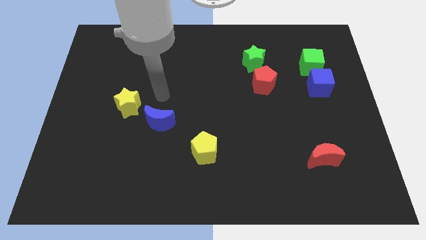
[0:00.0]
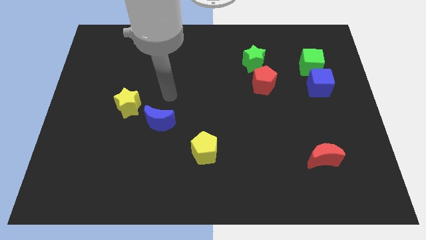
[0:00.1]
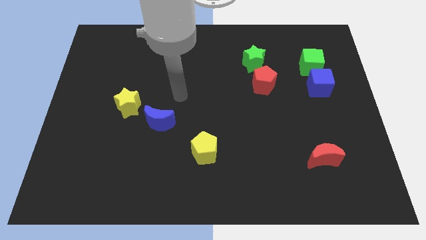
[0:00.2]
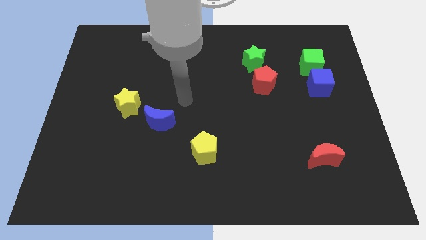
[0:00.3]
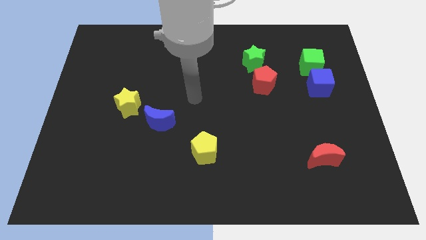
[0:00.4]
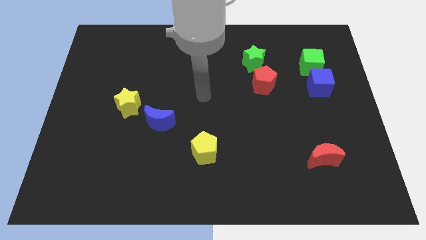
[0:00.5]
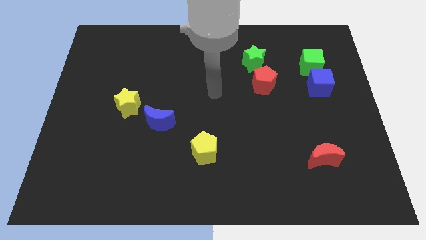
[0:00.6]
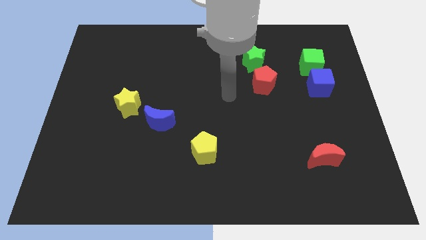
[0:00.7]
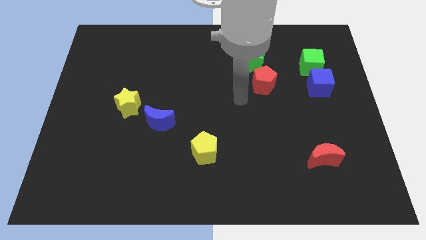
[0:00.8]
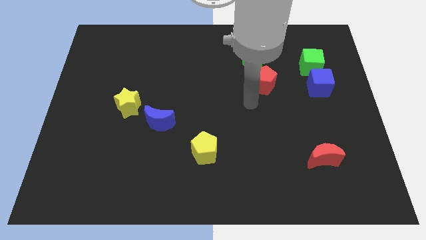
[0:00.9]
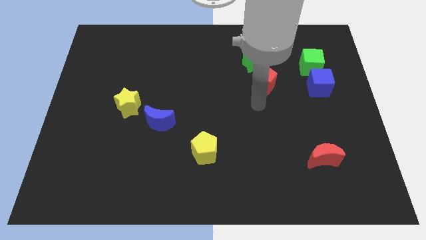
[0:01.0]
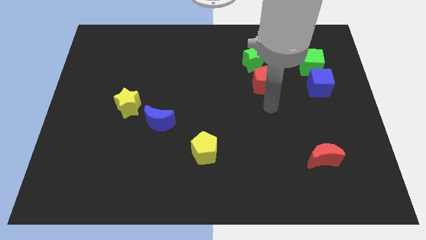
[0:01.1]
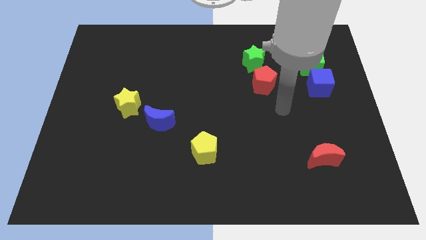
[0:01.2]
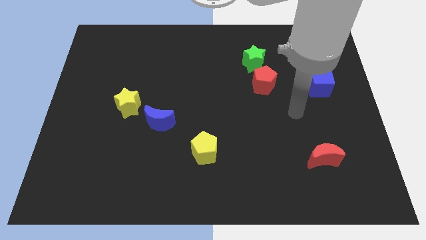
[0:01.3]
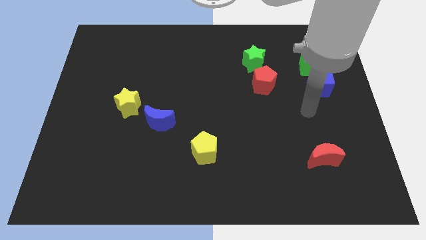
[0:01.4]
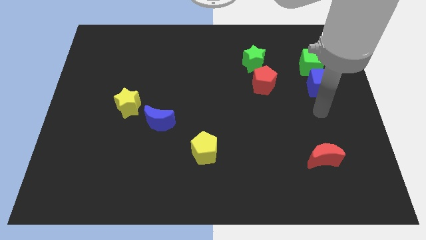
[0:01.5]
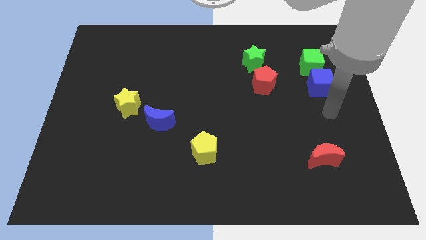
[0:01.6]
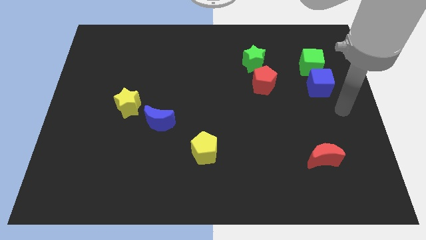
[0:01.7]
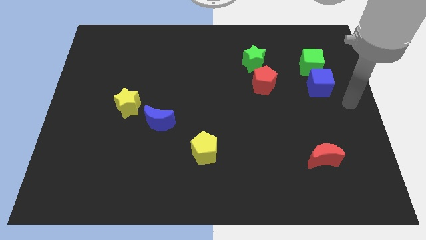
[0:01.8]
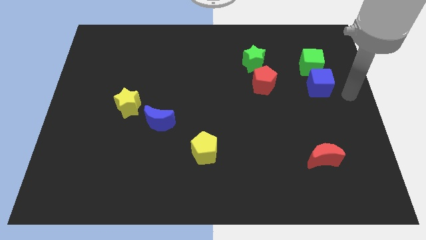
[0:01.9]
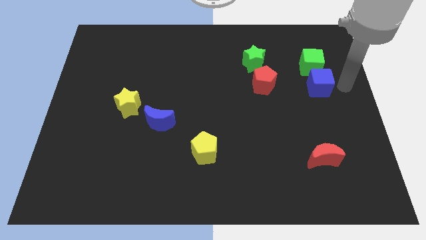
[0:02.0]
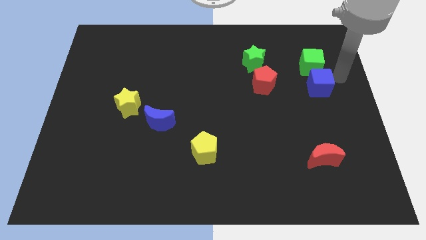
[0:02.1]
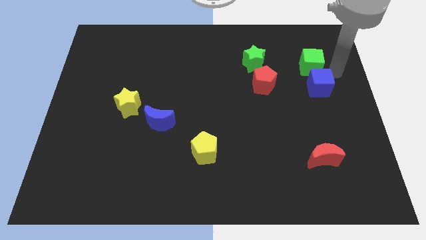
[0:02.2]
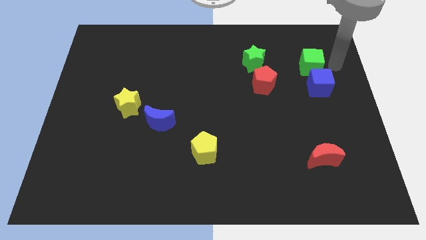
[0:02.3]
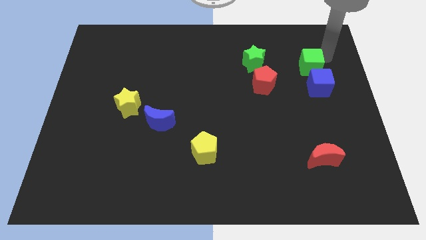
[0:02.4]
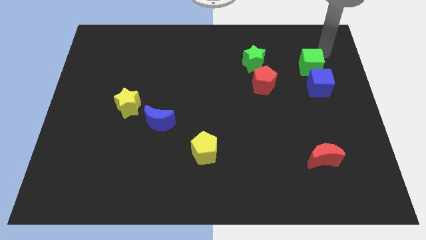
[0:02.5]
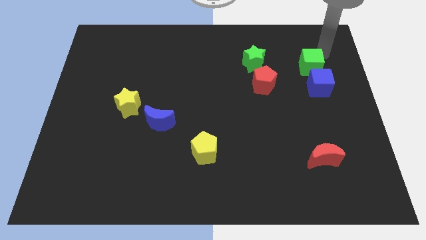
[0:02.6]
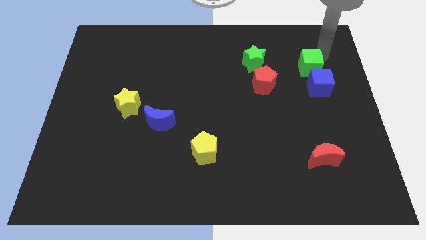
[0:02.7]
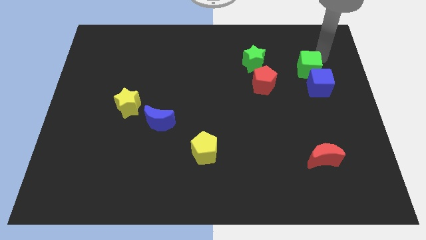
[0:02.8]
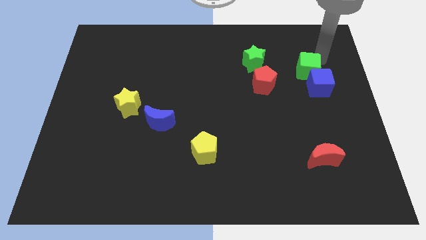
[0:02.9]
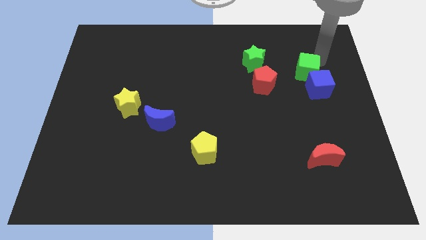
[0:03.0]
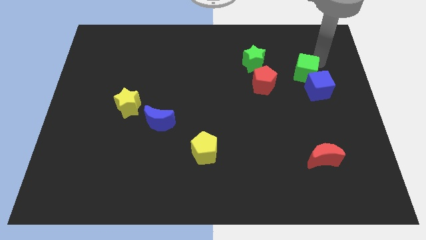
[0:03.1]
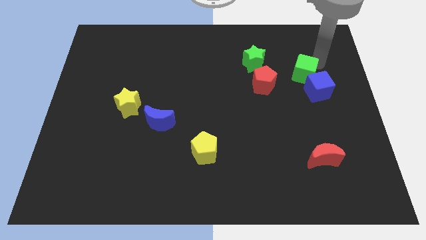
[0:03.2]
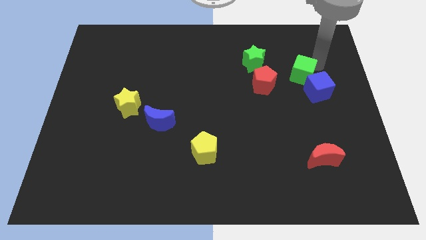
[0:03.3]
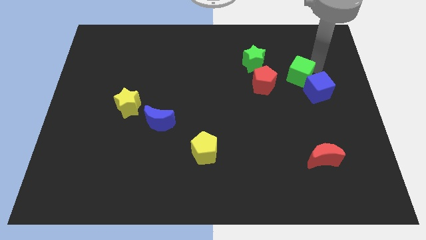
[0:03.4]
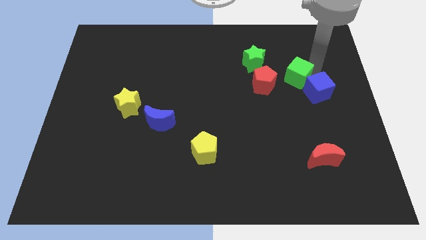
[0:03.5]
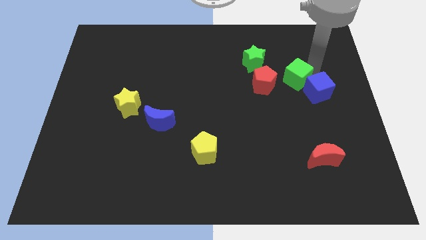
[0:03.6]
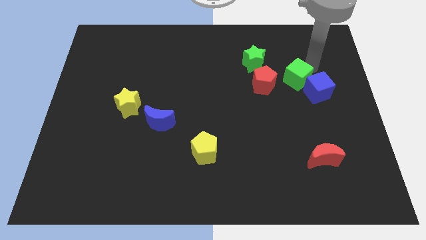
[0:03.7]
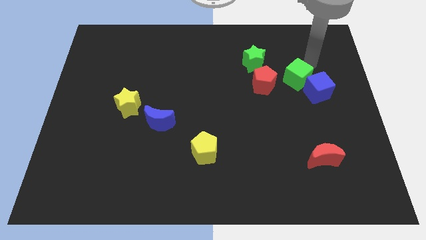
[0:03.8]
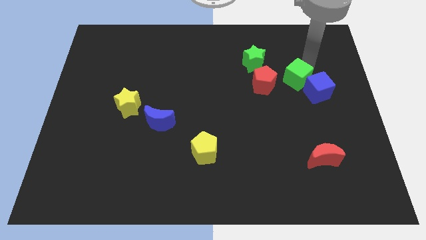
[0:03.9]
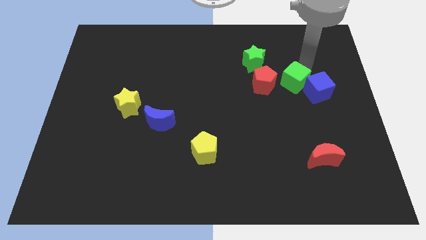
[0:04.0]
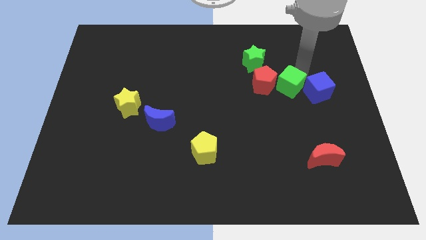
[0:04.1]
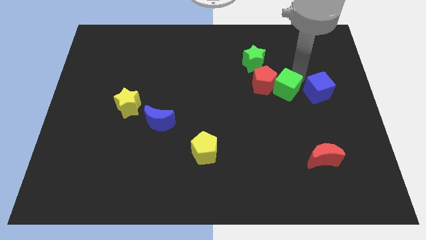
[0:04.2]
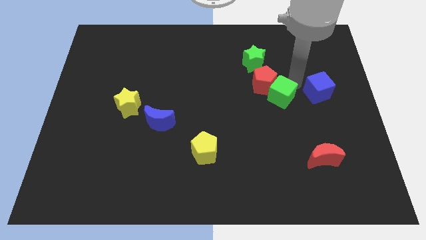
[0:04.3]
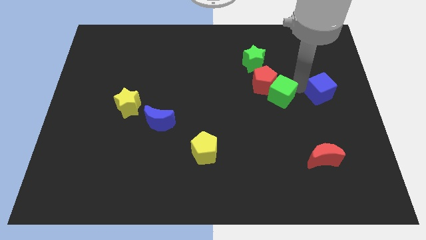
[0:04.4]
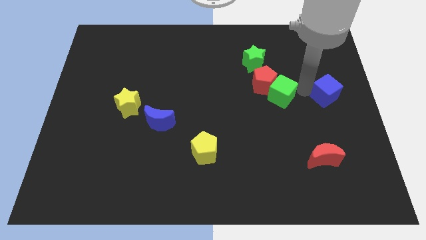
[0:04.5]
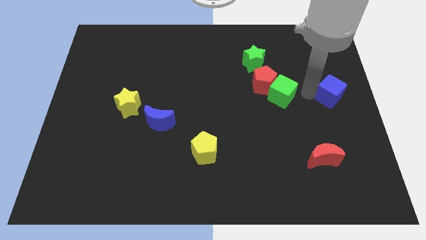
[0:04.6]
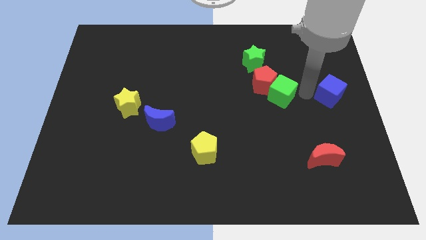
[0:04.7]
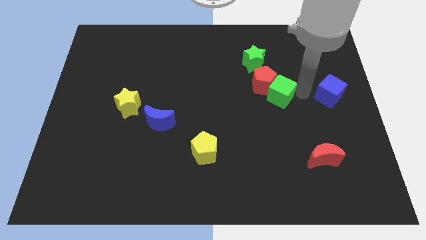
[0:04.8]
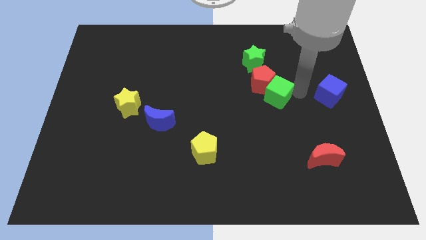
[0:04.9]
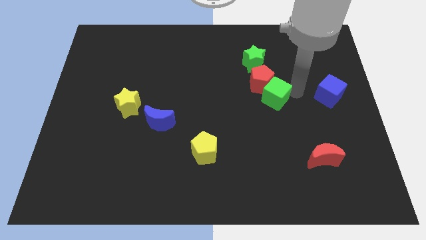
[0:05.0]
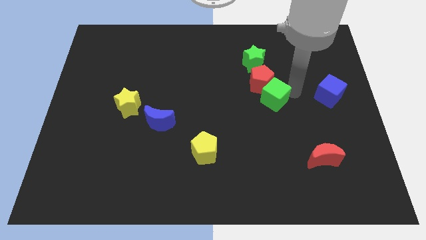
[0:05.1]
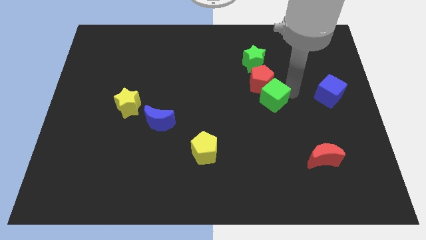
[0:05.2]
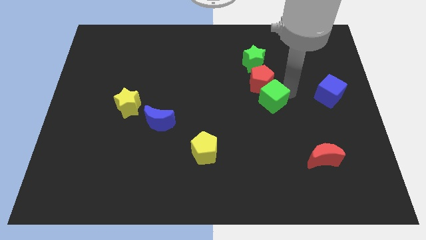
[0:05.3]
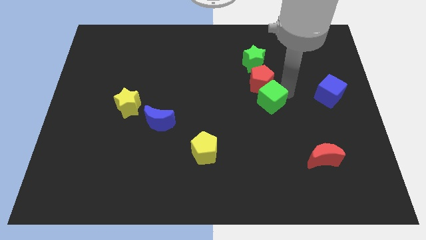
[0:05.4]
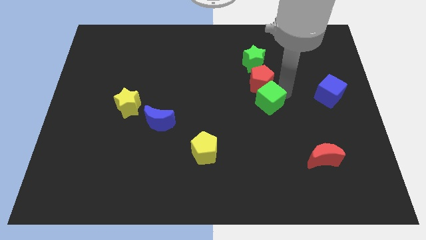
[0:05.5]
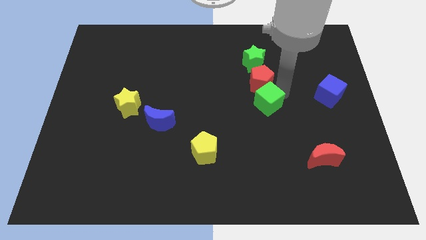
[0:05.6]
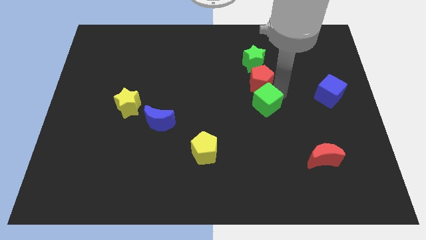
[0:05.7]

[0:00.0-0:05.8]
push the green cube to the center of the board

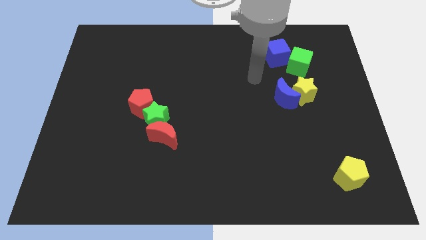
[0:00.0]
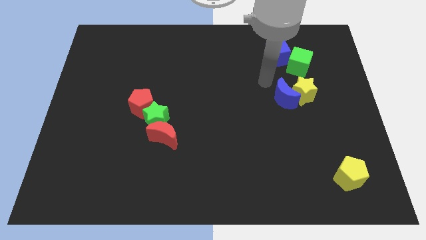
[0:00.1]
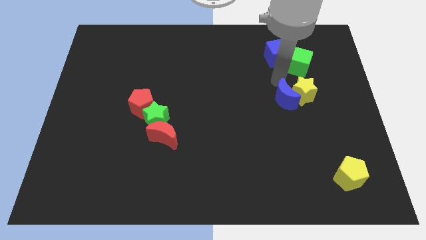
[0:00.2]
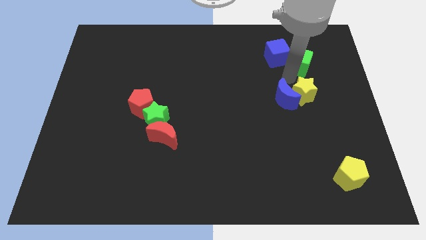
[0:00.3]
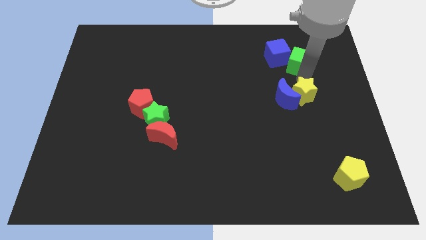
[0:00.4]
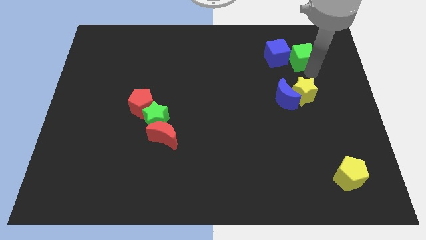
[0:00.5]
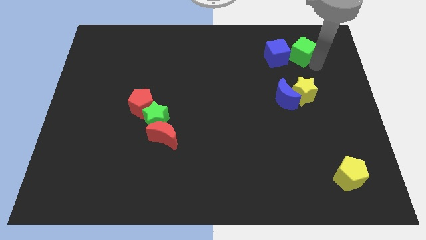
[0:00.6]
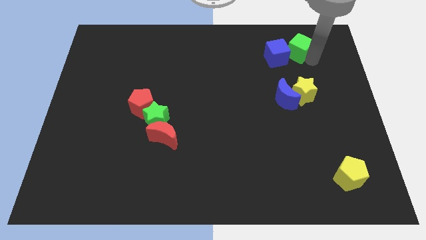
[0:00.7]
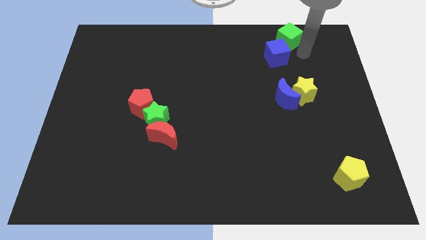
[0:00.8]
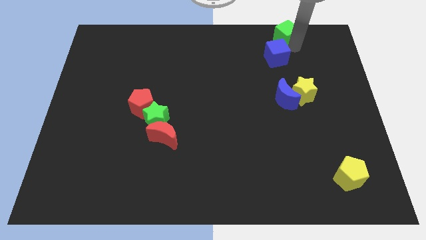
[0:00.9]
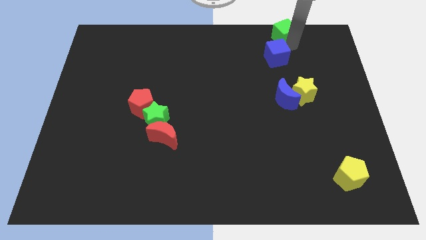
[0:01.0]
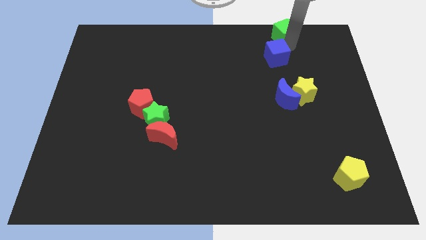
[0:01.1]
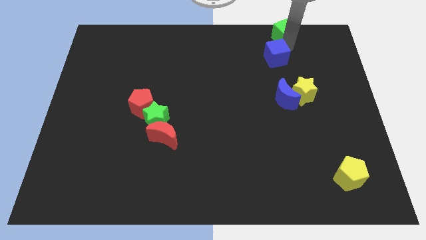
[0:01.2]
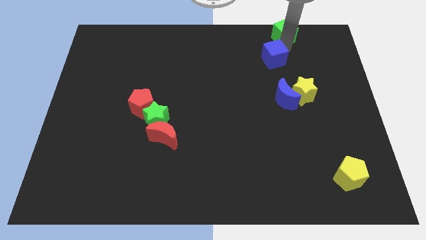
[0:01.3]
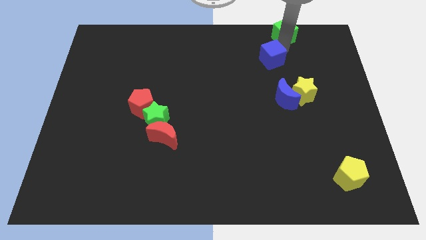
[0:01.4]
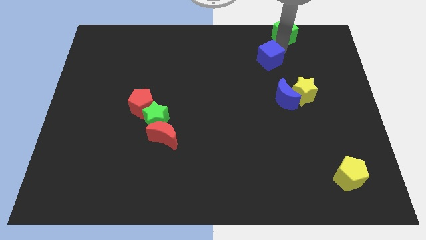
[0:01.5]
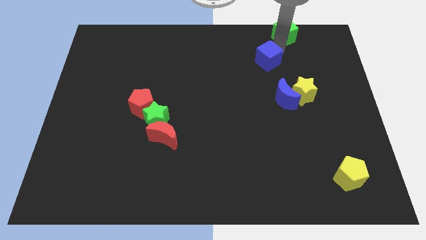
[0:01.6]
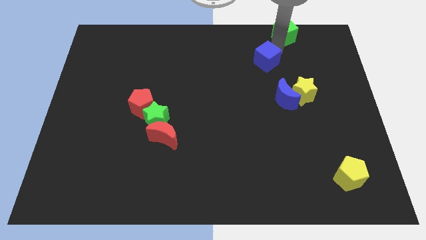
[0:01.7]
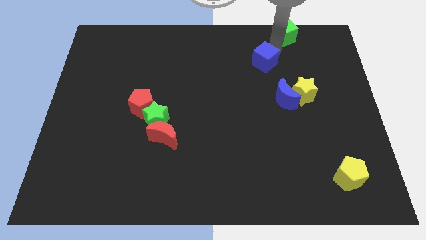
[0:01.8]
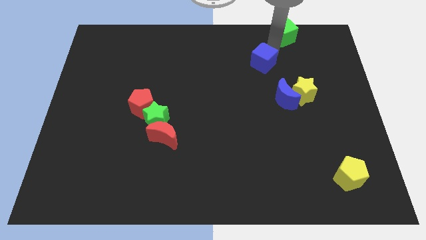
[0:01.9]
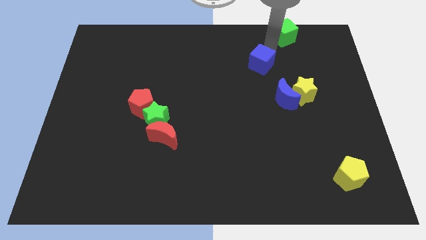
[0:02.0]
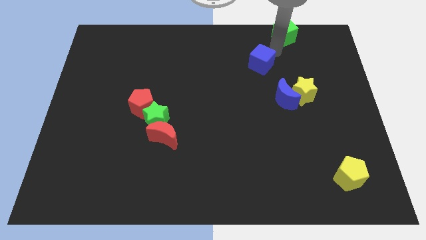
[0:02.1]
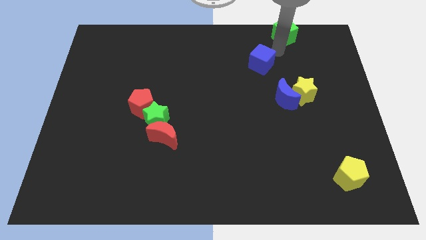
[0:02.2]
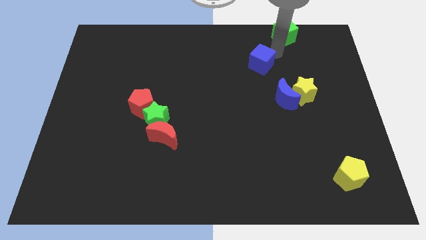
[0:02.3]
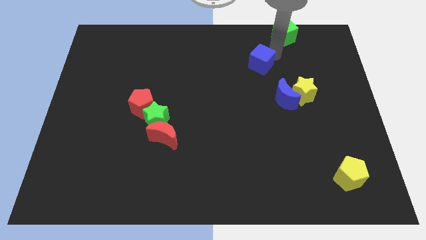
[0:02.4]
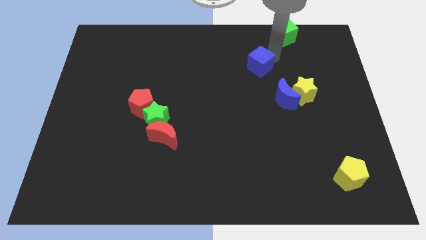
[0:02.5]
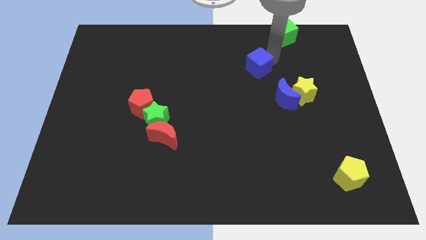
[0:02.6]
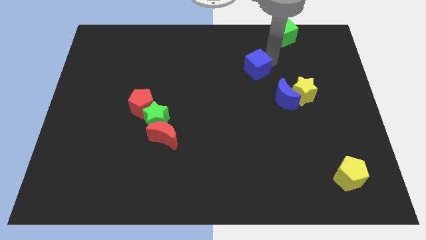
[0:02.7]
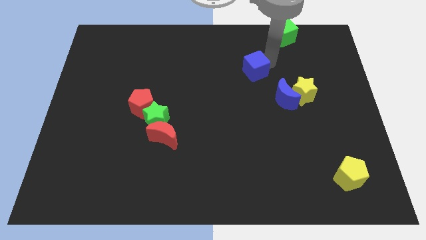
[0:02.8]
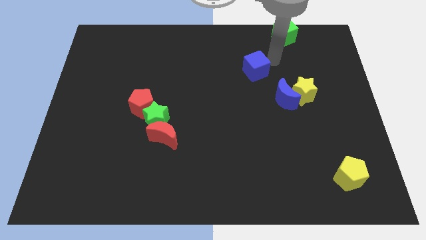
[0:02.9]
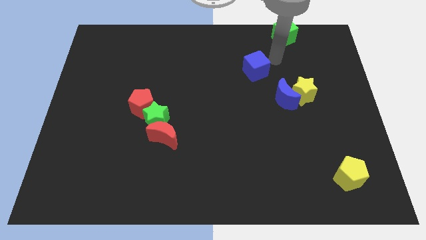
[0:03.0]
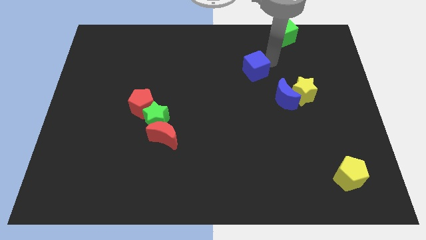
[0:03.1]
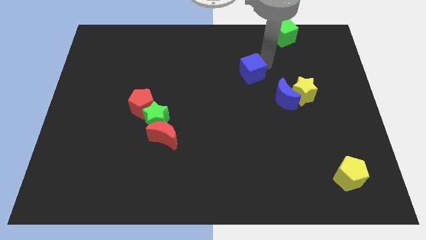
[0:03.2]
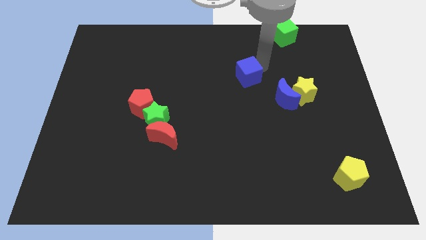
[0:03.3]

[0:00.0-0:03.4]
put the blue cube to the middle
